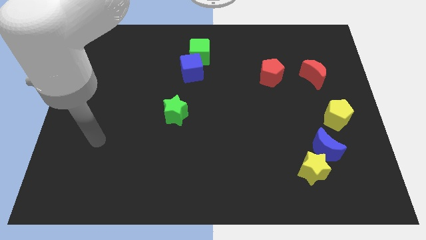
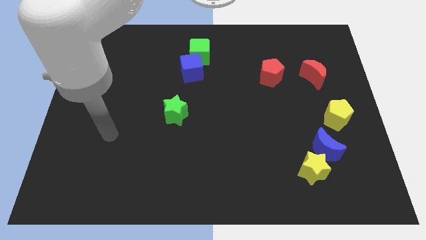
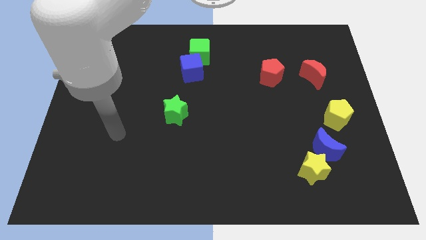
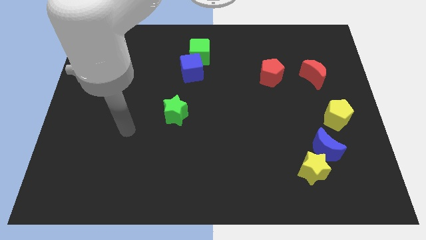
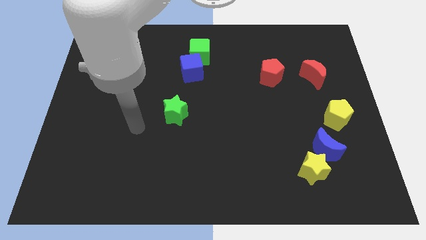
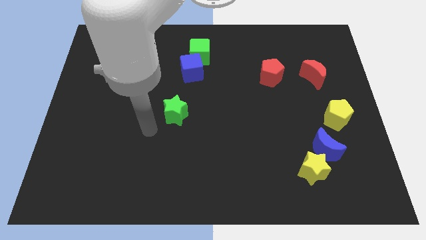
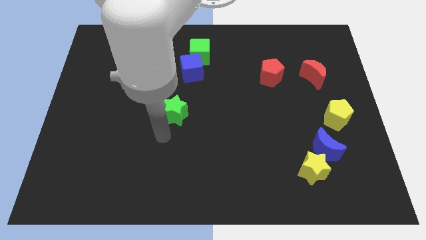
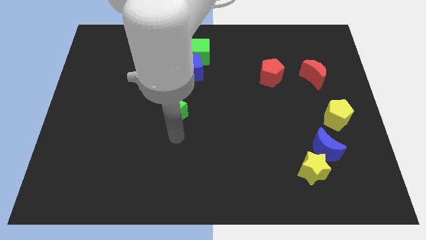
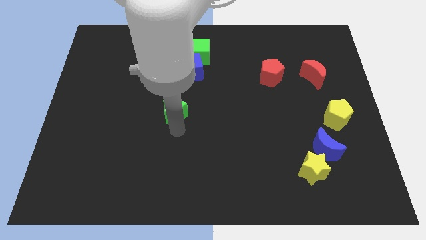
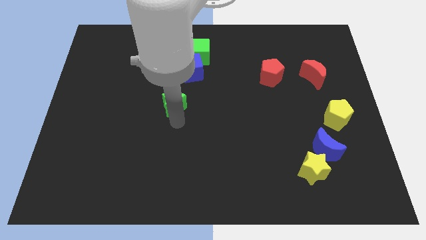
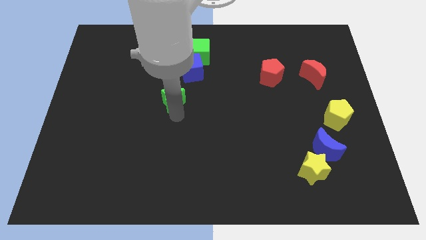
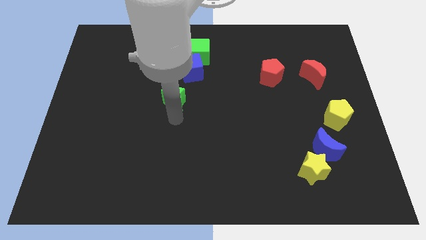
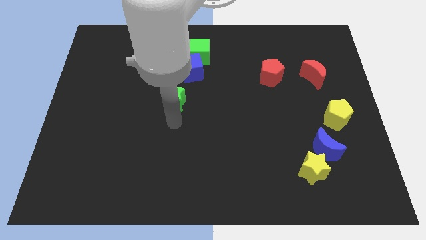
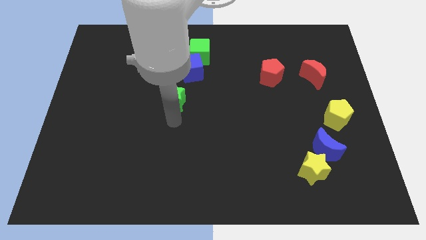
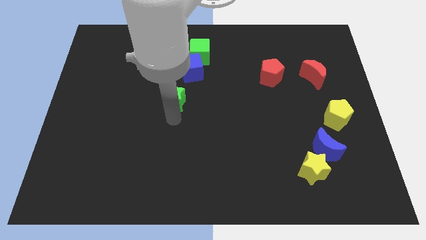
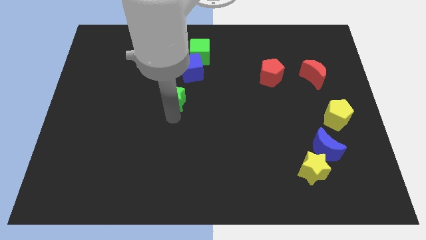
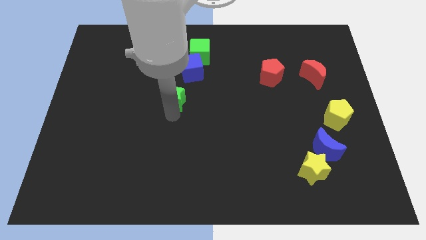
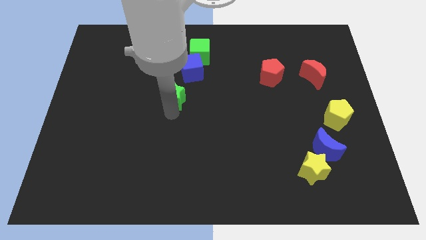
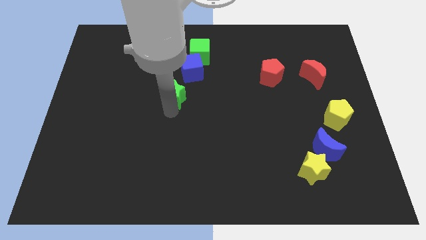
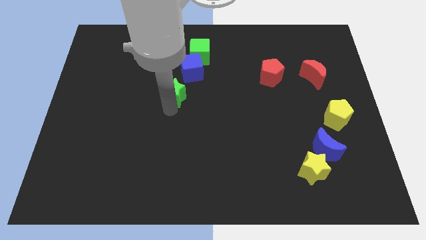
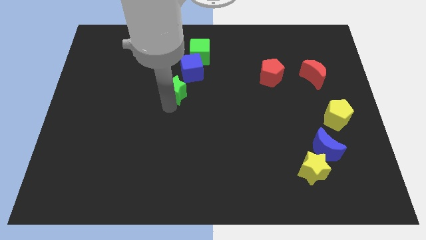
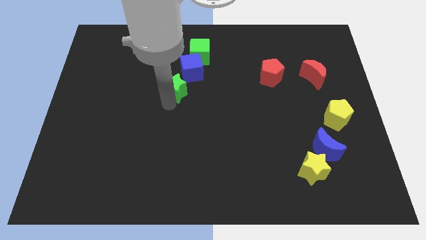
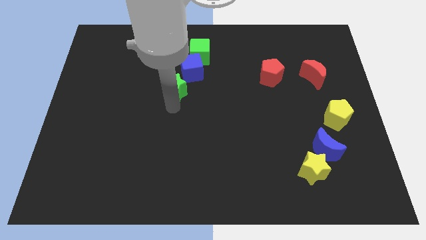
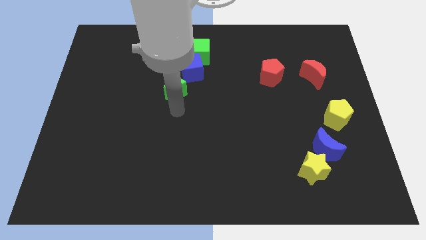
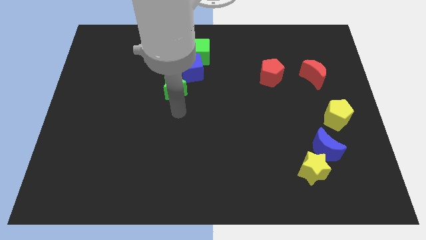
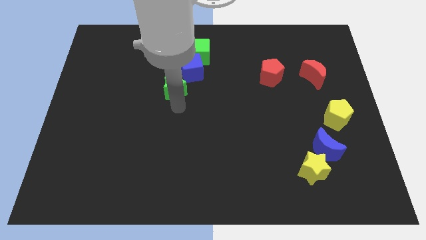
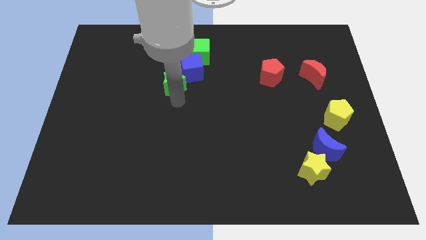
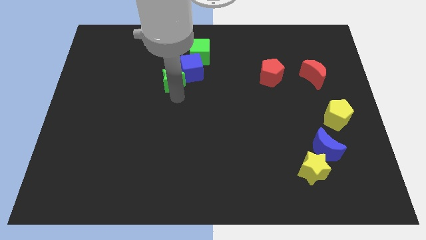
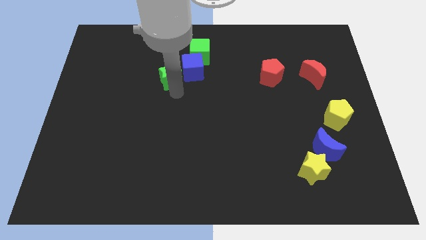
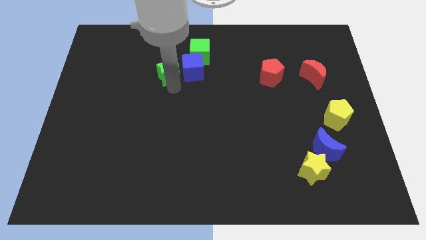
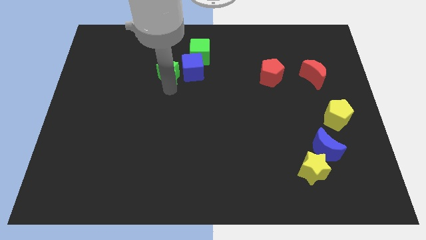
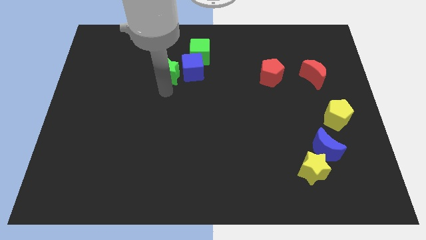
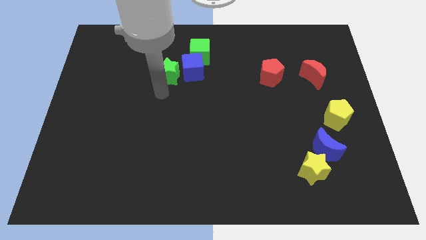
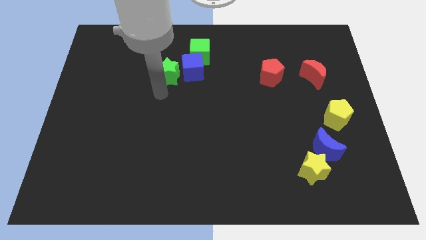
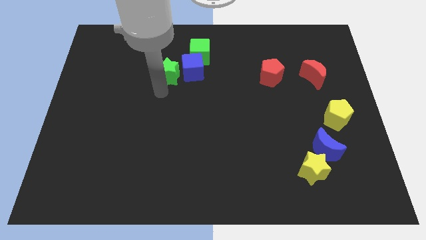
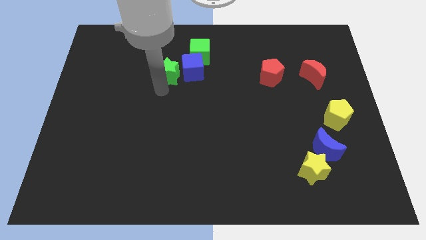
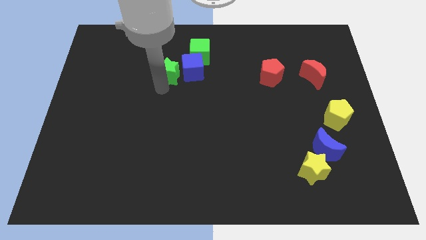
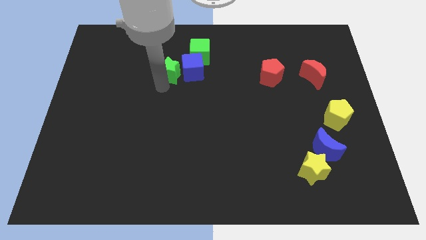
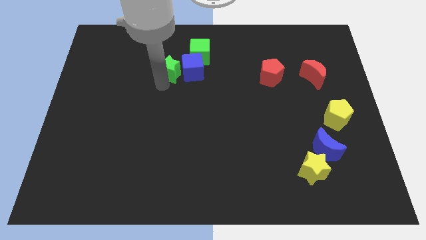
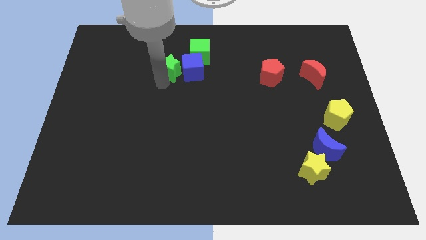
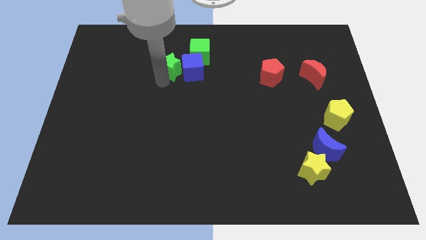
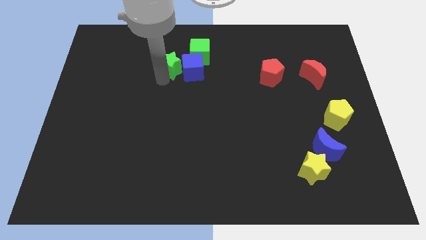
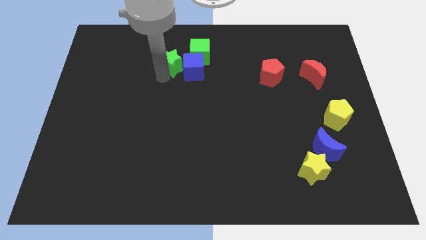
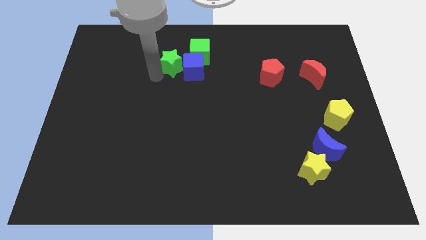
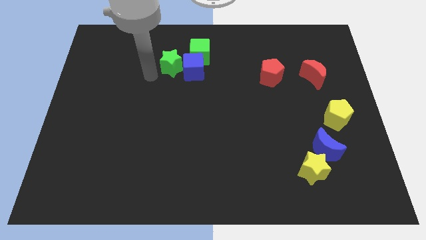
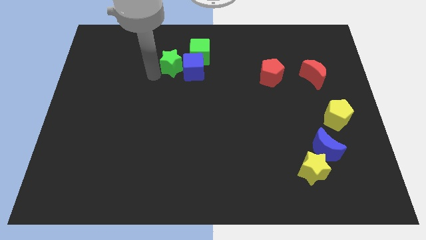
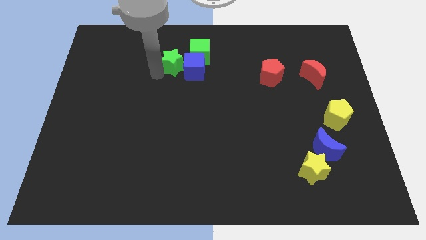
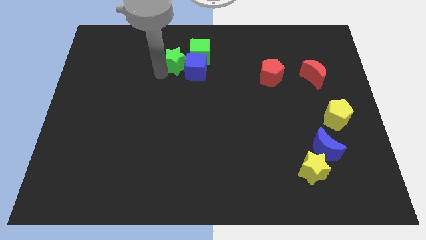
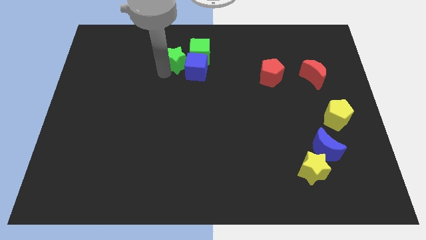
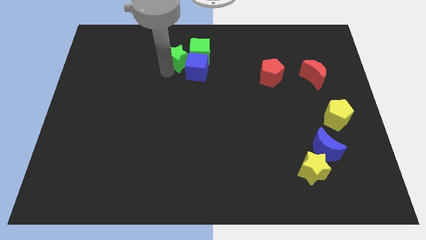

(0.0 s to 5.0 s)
move the green star close to the green cube

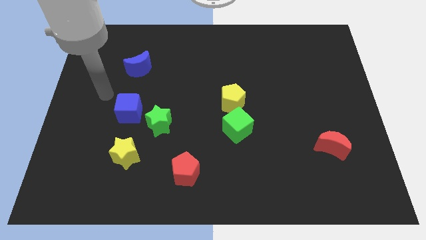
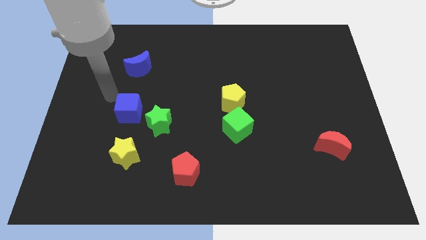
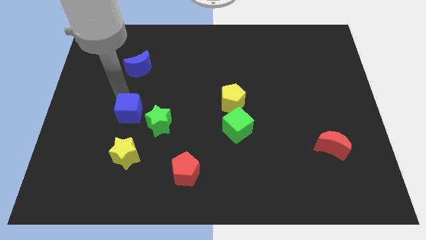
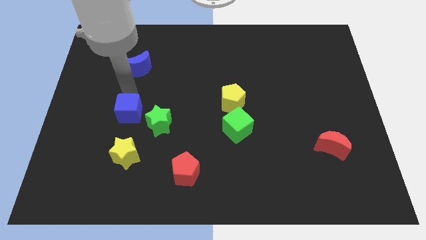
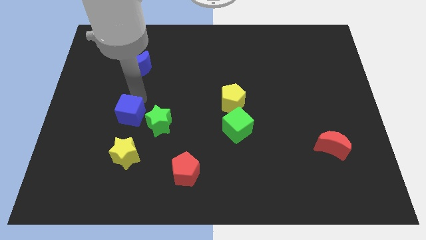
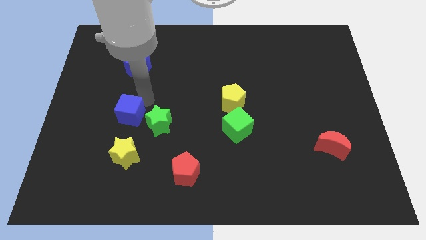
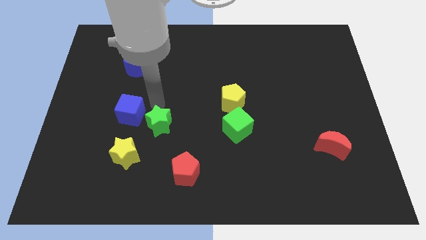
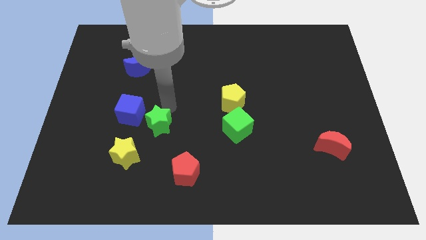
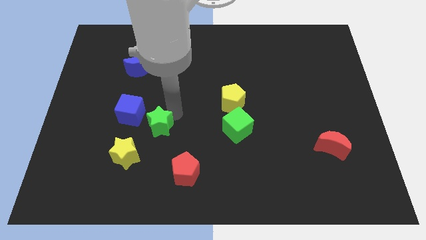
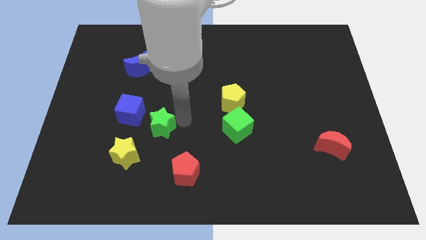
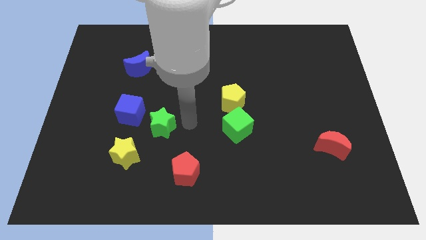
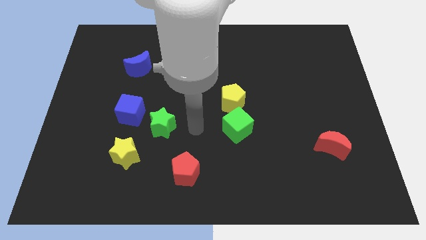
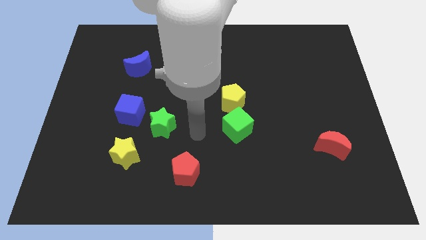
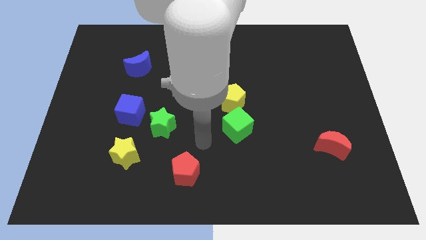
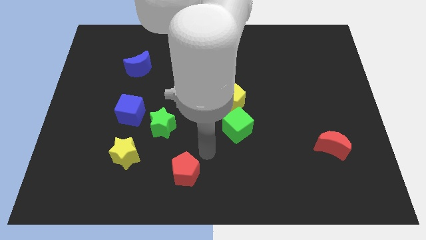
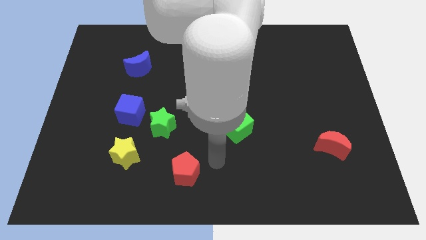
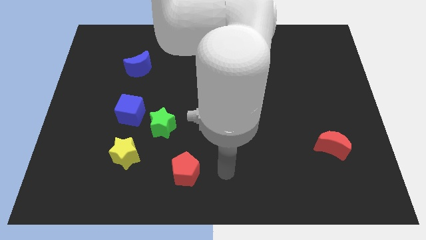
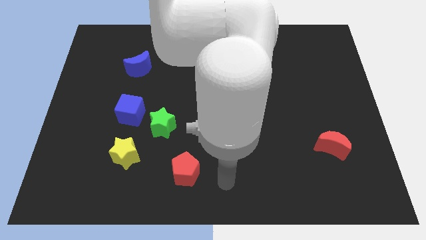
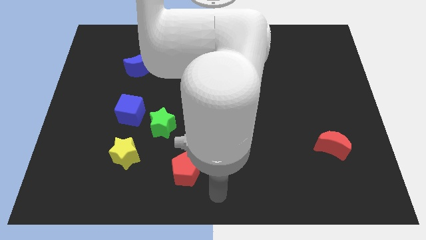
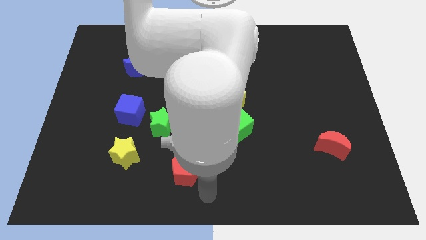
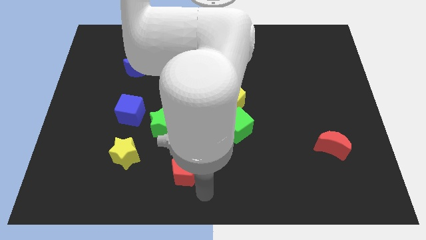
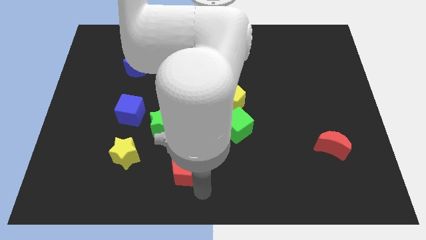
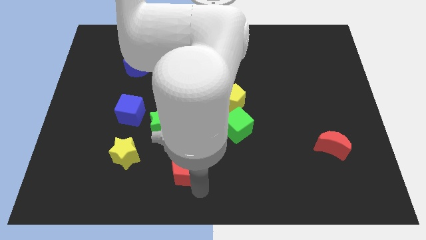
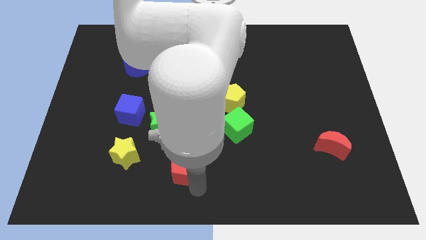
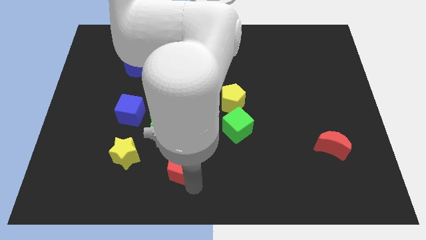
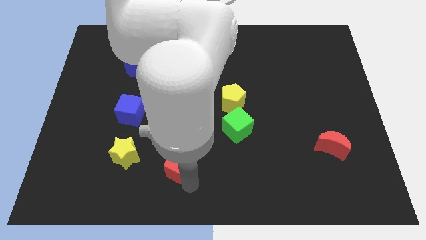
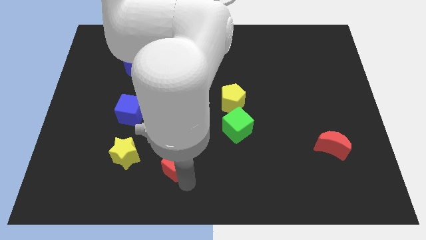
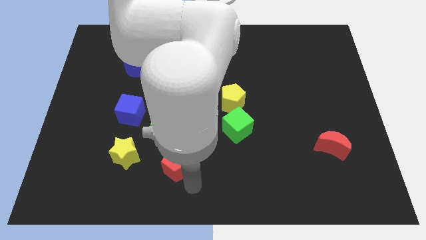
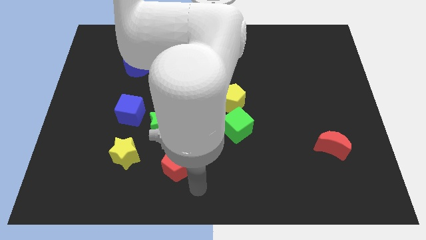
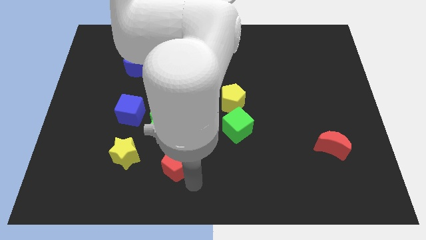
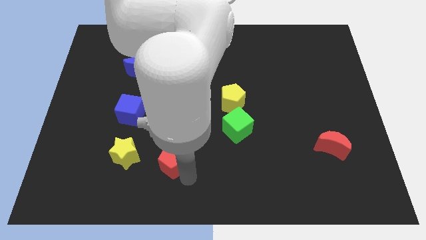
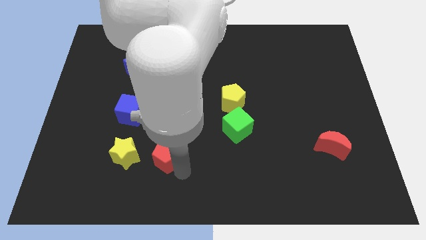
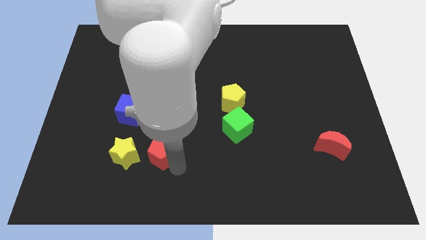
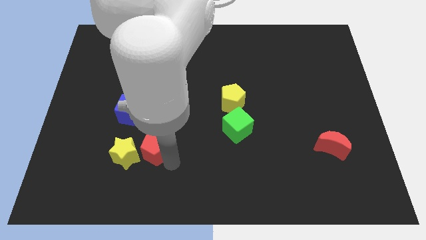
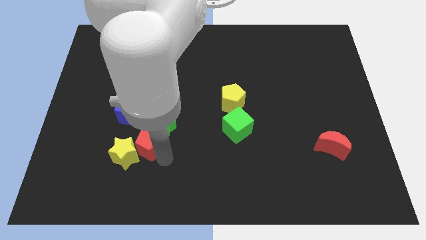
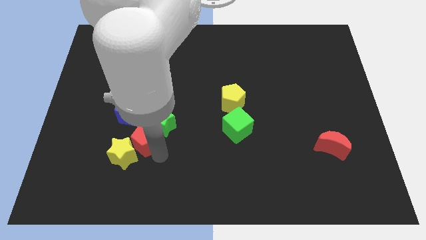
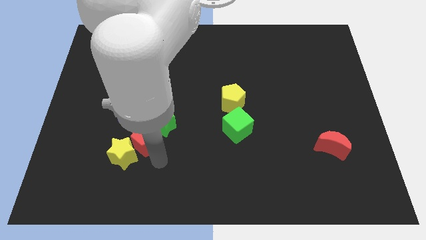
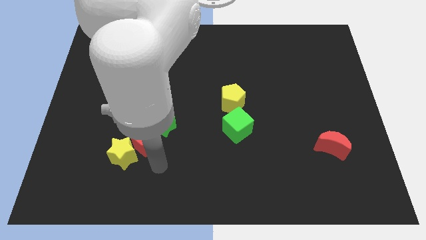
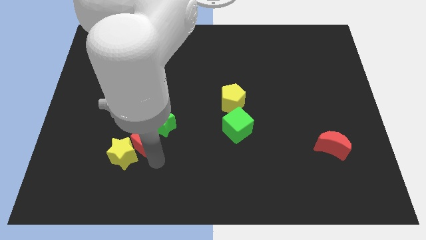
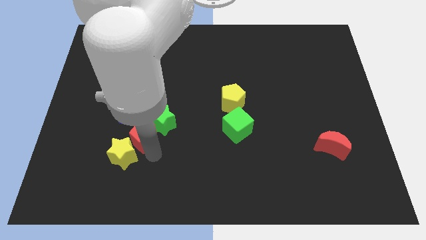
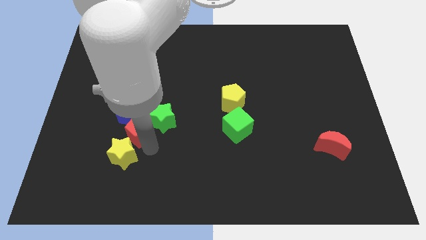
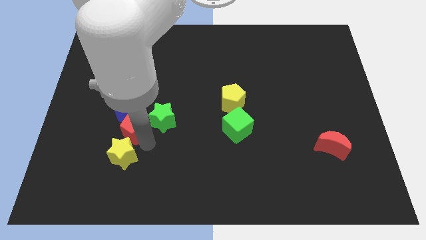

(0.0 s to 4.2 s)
put the red pentagon next to the blue cube
